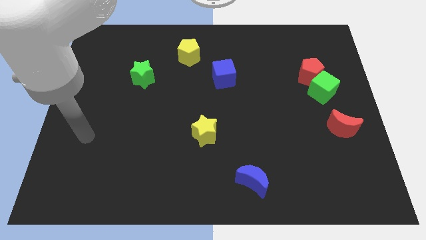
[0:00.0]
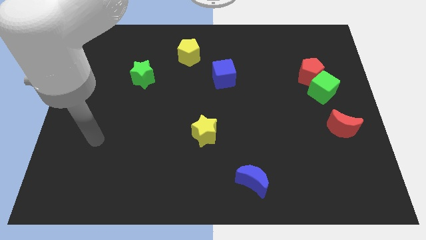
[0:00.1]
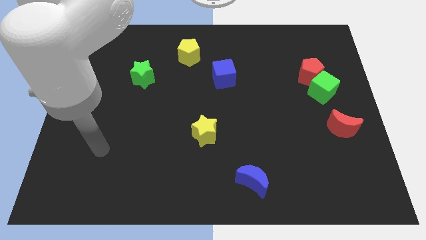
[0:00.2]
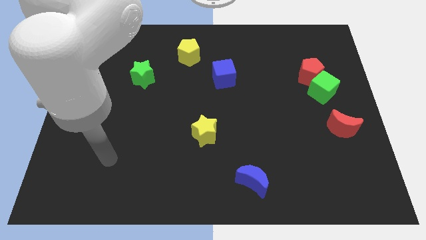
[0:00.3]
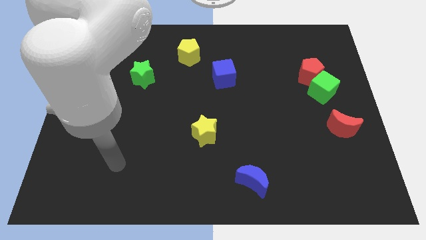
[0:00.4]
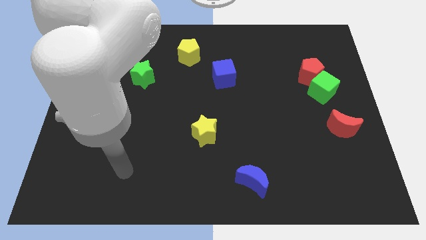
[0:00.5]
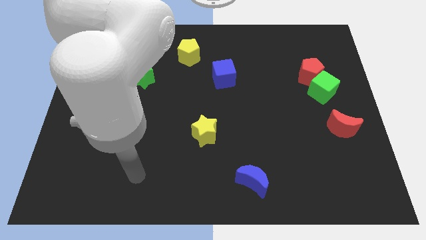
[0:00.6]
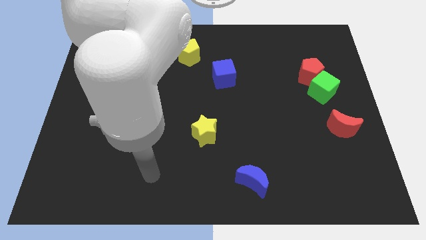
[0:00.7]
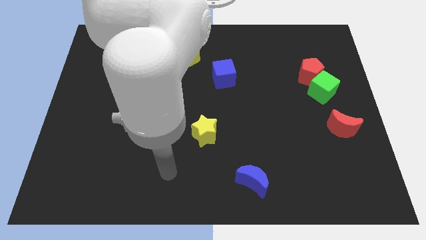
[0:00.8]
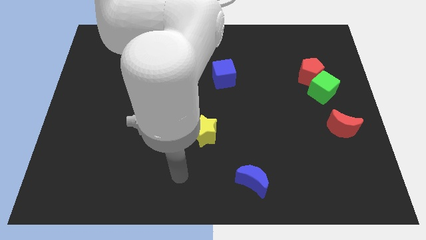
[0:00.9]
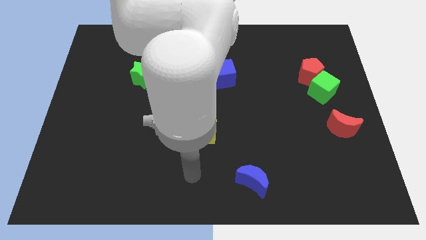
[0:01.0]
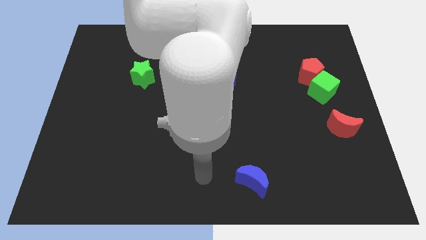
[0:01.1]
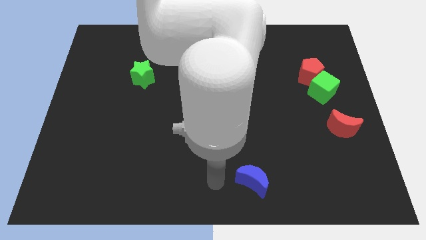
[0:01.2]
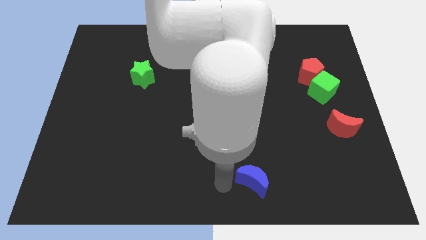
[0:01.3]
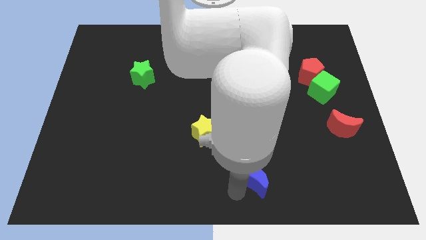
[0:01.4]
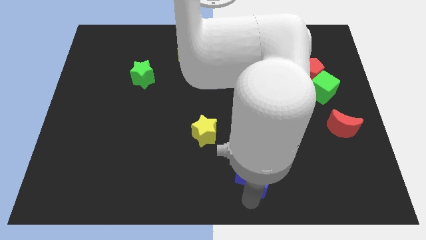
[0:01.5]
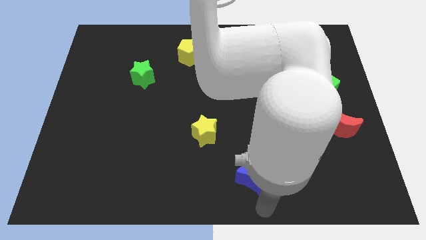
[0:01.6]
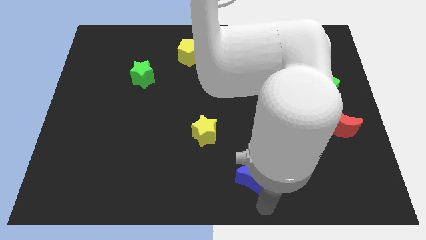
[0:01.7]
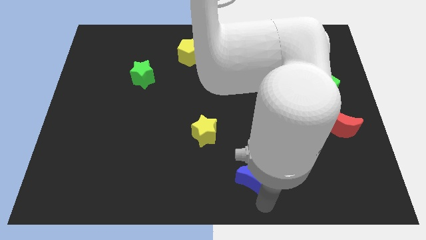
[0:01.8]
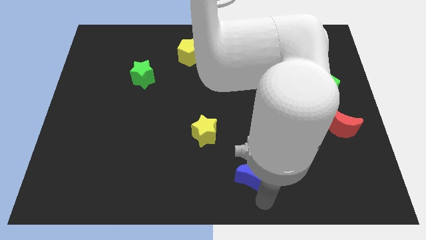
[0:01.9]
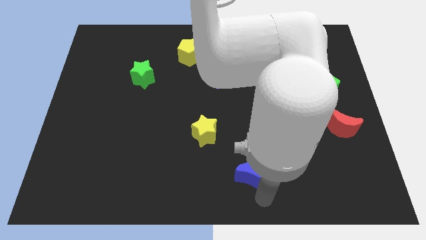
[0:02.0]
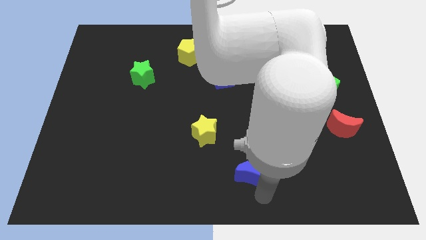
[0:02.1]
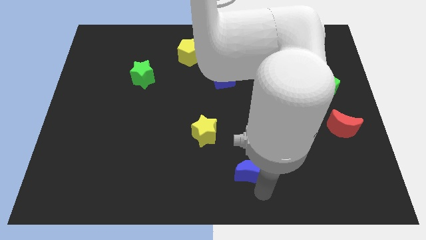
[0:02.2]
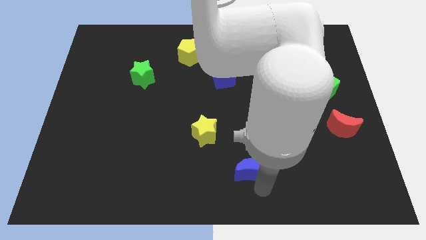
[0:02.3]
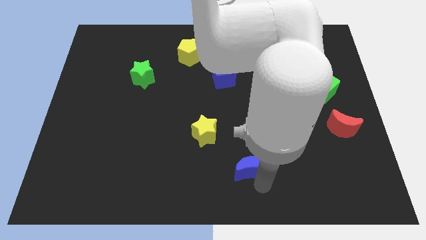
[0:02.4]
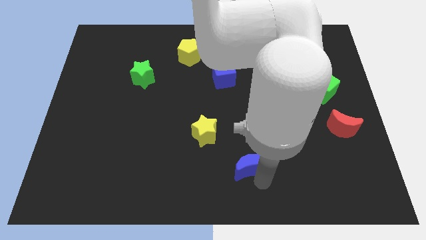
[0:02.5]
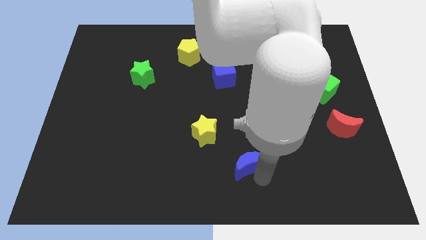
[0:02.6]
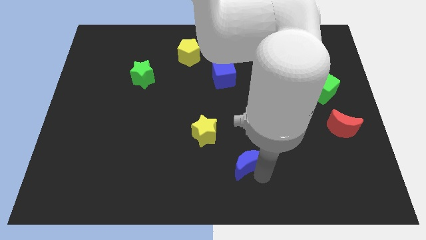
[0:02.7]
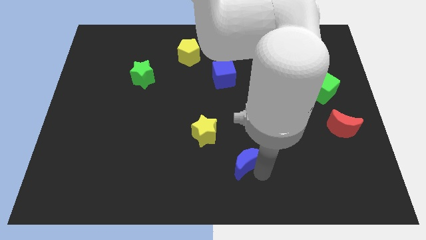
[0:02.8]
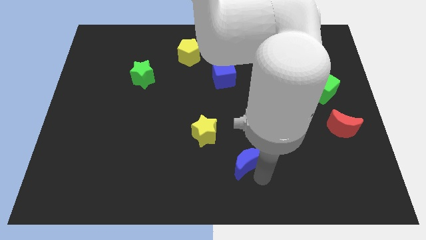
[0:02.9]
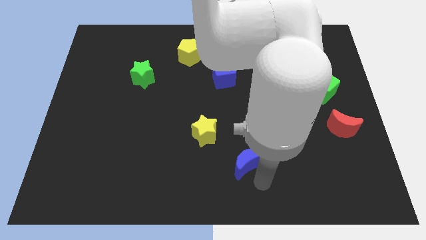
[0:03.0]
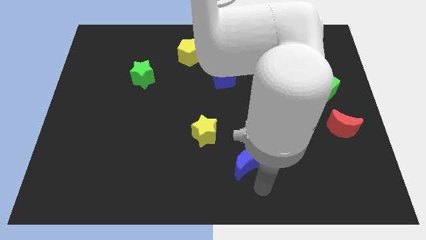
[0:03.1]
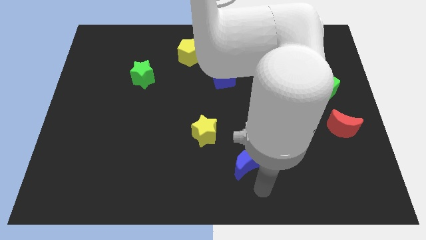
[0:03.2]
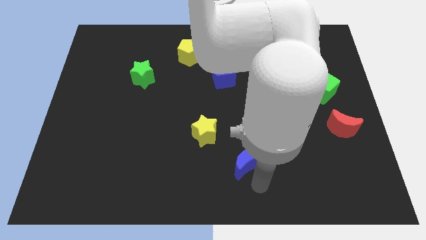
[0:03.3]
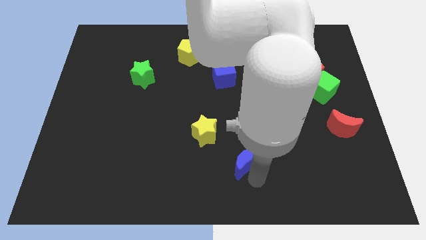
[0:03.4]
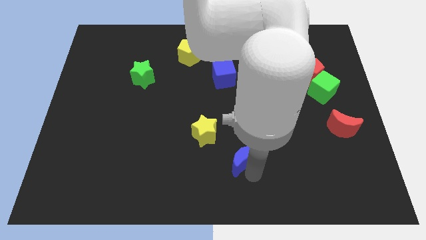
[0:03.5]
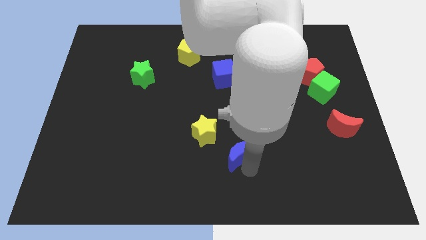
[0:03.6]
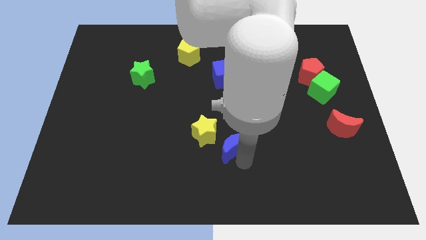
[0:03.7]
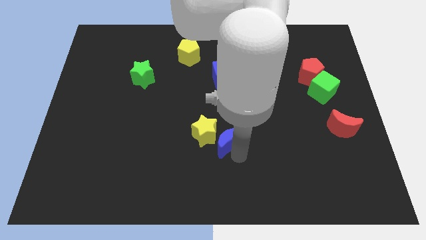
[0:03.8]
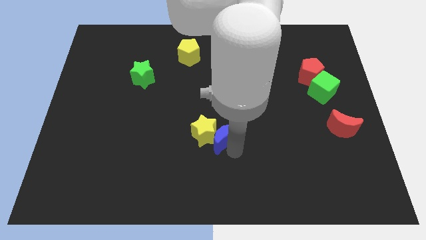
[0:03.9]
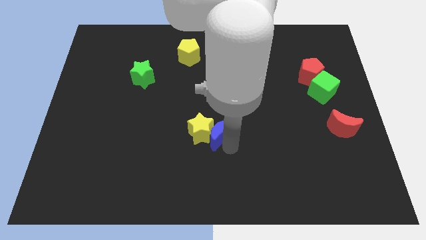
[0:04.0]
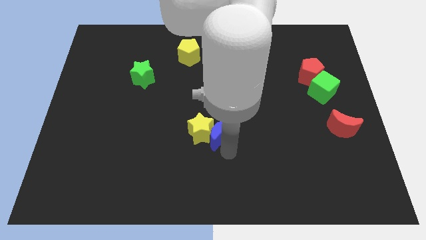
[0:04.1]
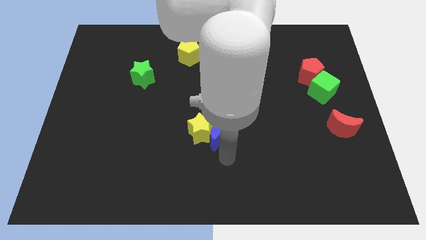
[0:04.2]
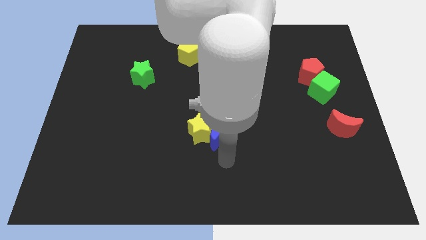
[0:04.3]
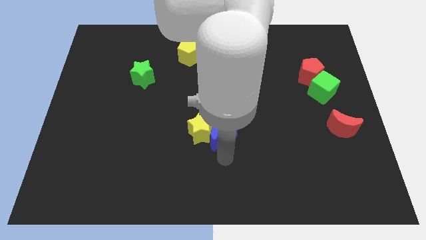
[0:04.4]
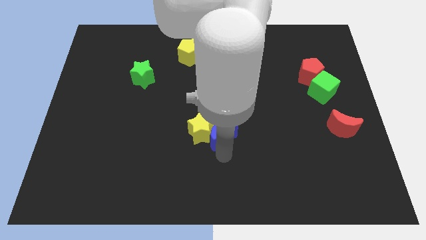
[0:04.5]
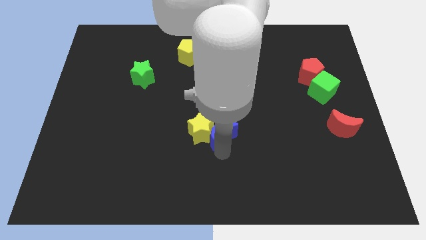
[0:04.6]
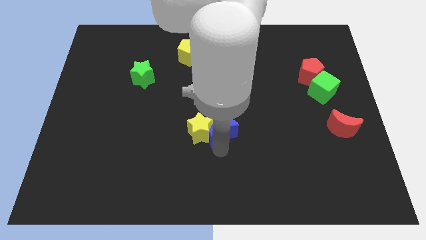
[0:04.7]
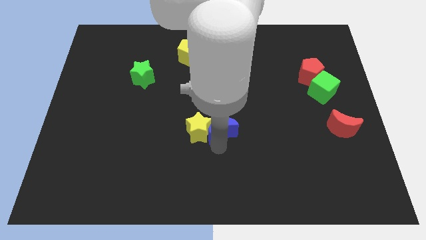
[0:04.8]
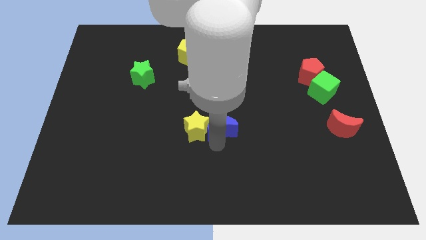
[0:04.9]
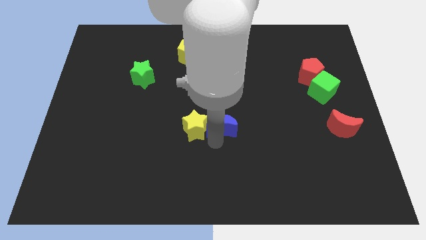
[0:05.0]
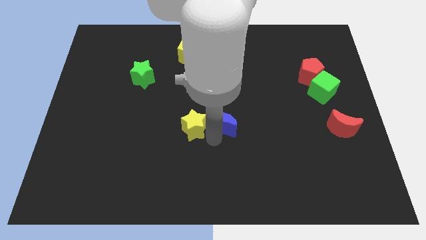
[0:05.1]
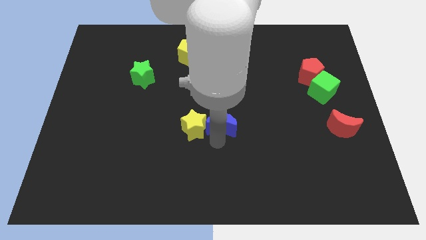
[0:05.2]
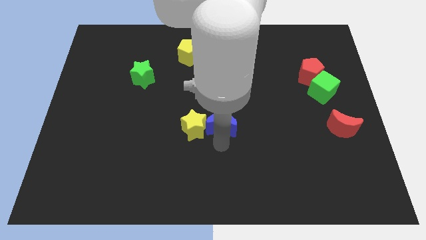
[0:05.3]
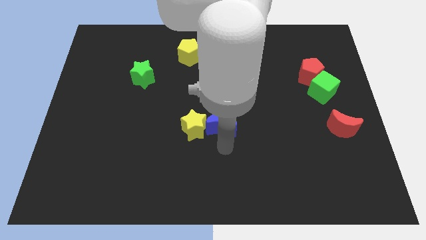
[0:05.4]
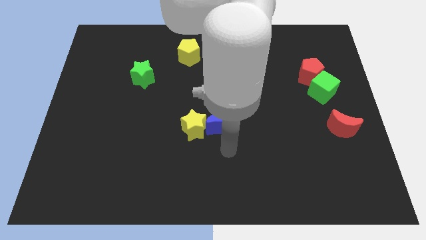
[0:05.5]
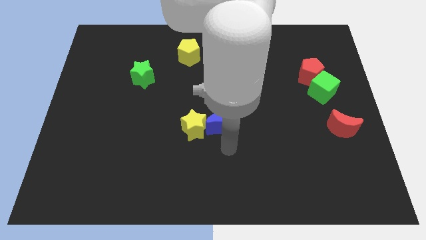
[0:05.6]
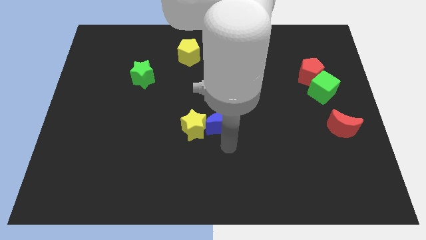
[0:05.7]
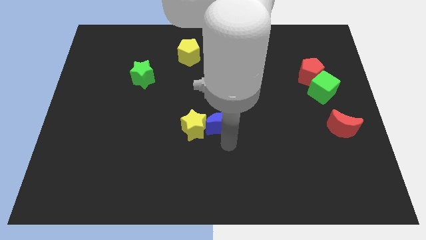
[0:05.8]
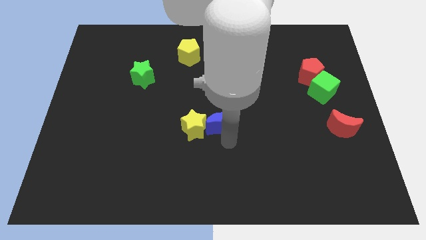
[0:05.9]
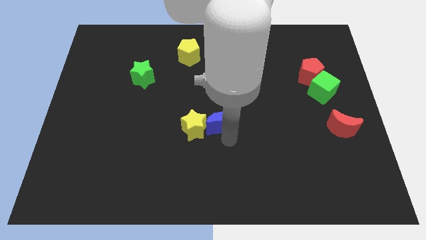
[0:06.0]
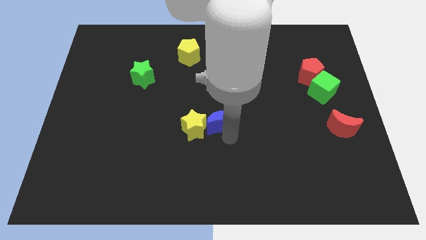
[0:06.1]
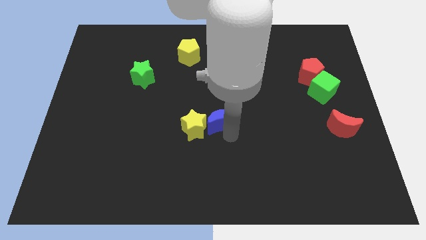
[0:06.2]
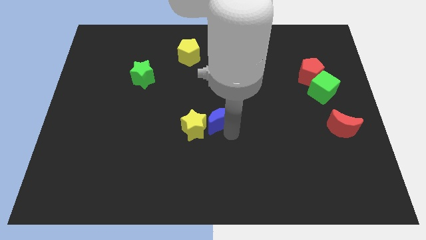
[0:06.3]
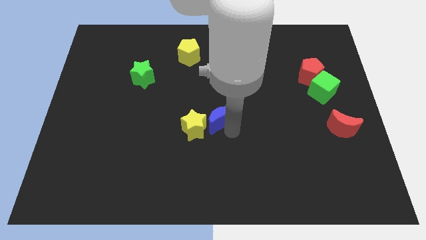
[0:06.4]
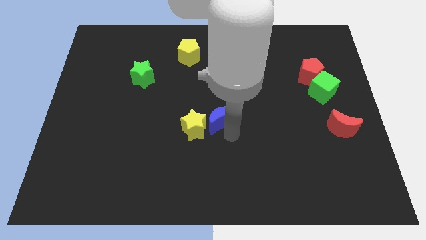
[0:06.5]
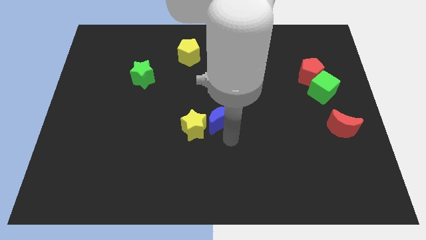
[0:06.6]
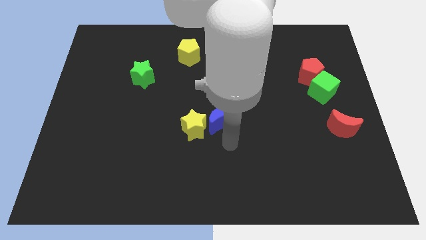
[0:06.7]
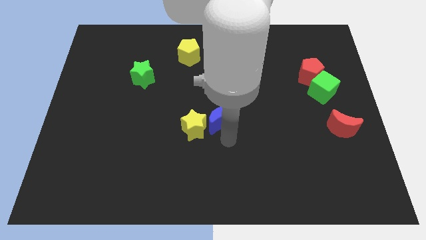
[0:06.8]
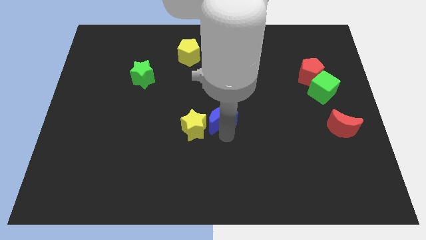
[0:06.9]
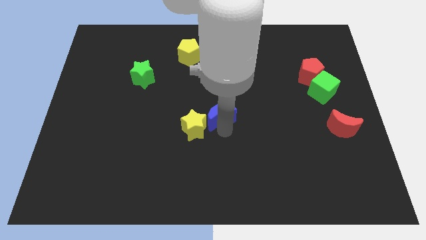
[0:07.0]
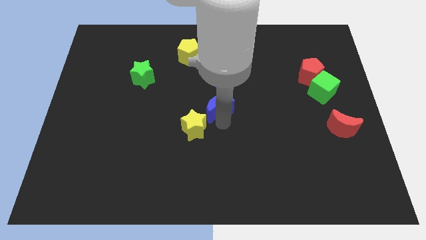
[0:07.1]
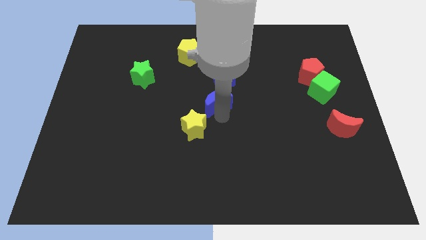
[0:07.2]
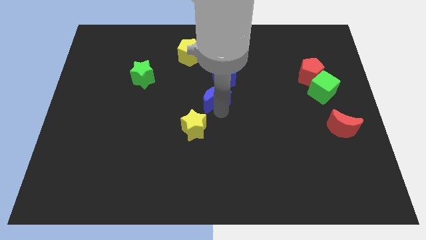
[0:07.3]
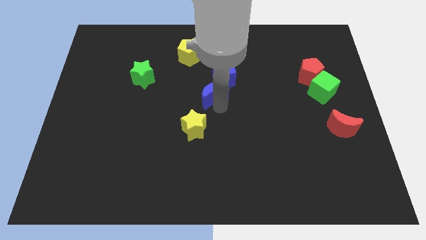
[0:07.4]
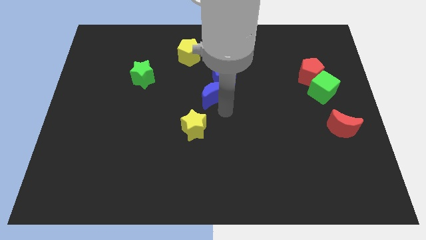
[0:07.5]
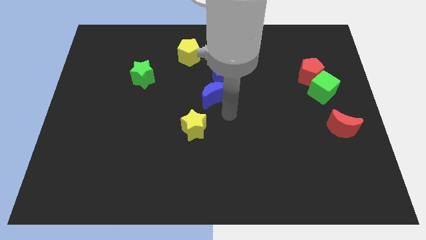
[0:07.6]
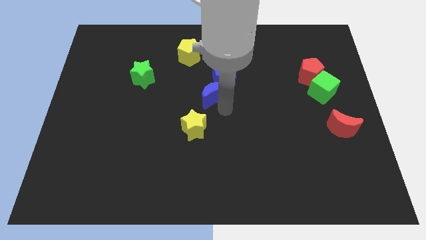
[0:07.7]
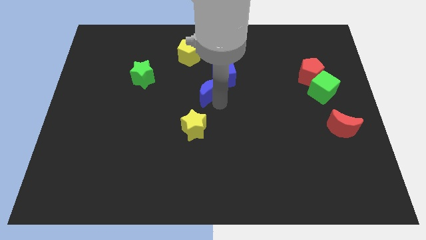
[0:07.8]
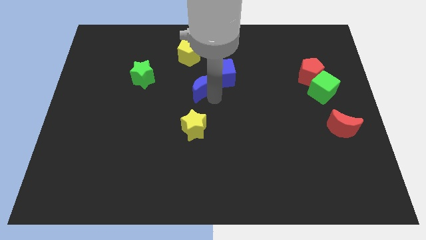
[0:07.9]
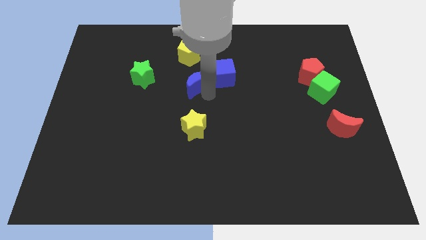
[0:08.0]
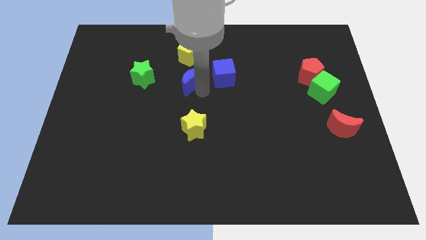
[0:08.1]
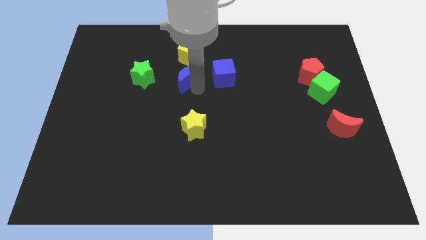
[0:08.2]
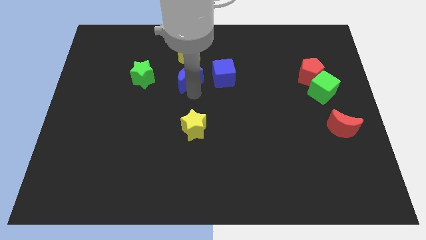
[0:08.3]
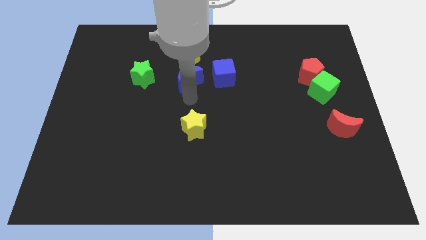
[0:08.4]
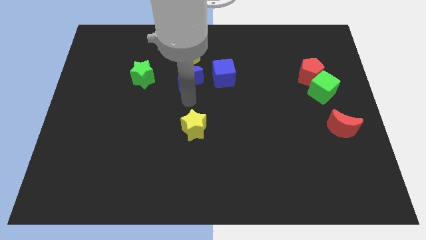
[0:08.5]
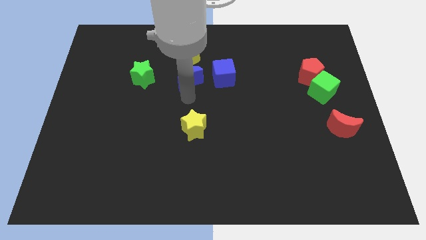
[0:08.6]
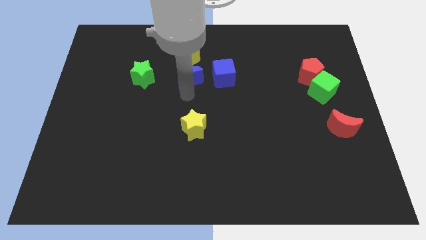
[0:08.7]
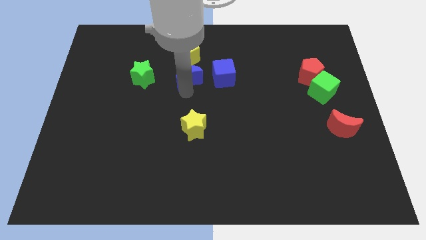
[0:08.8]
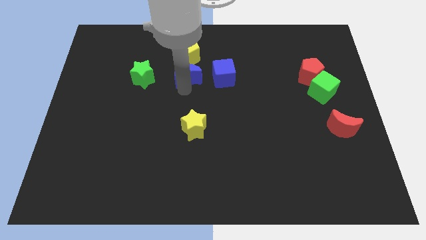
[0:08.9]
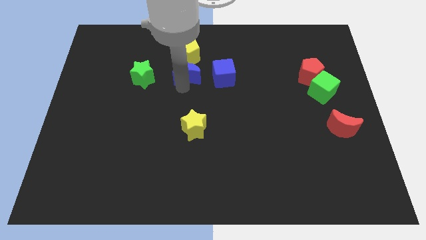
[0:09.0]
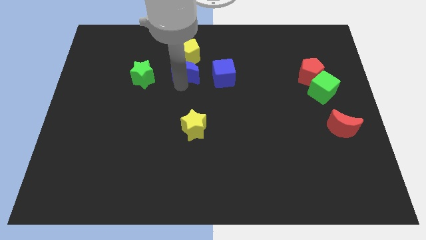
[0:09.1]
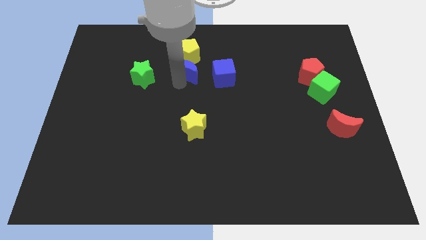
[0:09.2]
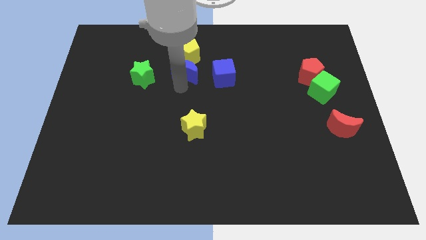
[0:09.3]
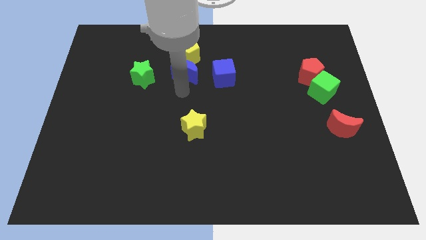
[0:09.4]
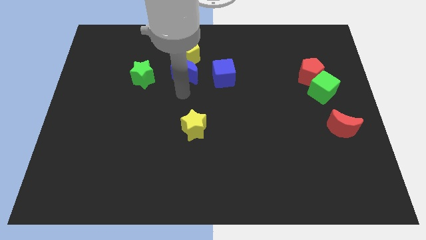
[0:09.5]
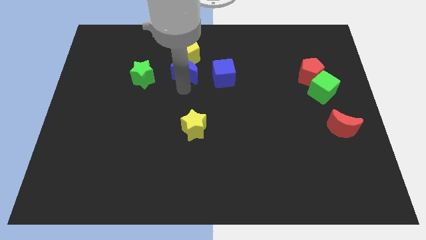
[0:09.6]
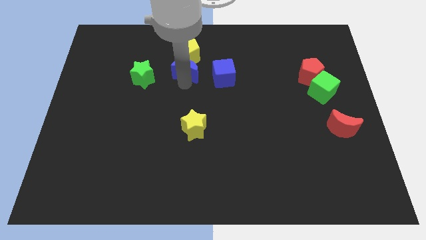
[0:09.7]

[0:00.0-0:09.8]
push the blue moon close to the yellow pentagon
